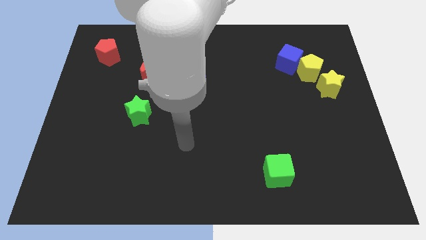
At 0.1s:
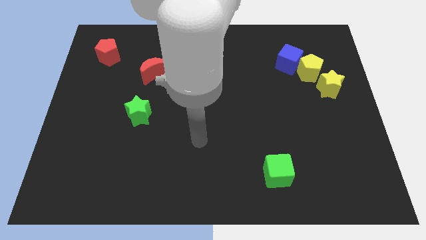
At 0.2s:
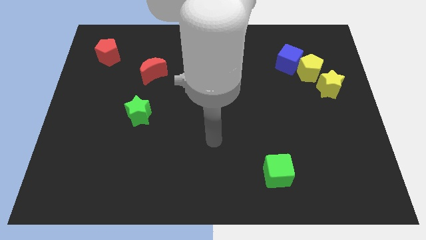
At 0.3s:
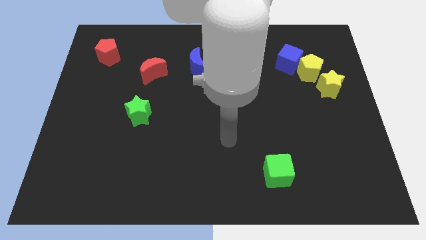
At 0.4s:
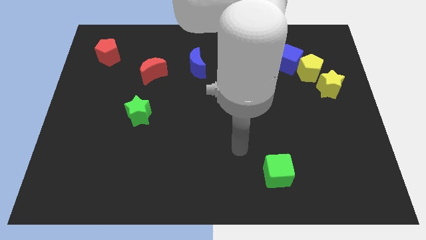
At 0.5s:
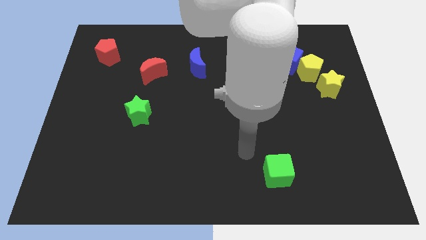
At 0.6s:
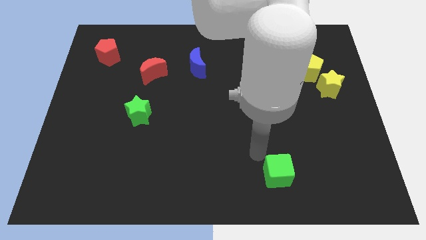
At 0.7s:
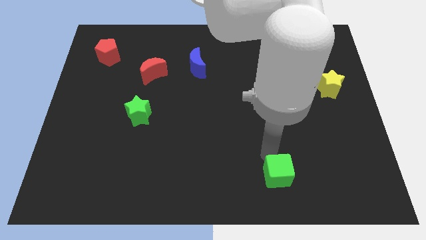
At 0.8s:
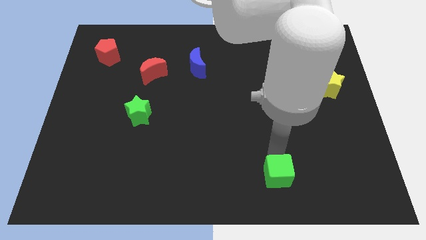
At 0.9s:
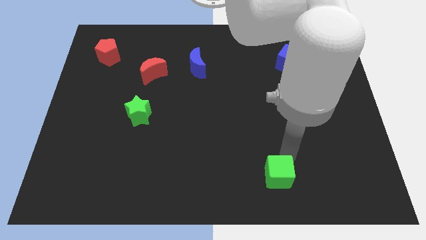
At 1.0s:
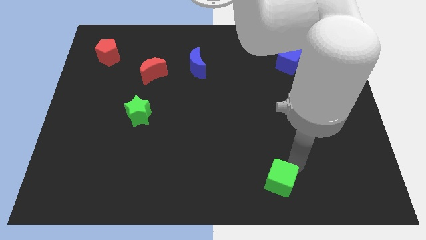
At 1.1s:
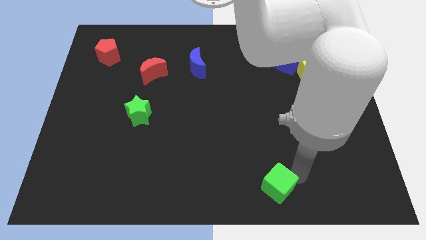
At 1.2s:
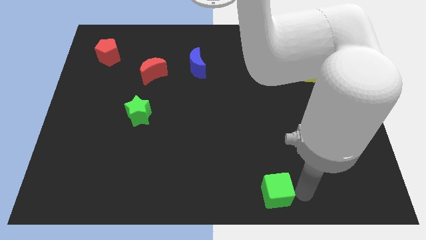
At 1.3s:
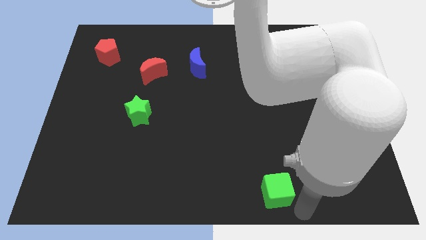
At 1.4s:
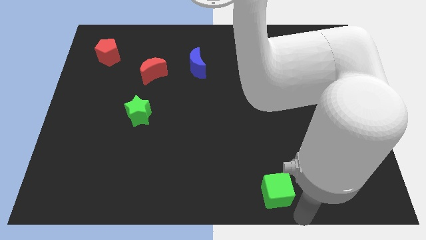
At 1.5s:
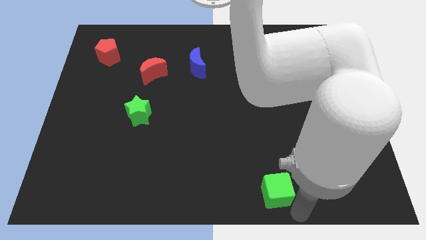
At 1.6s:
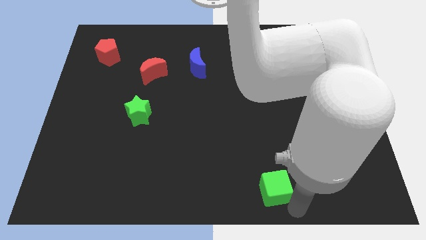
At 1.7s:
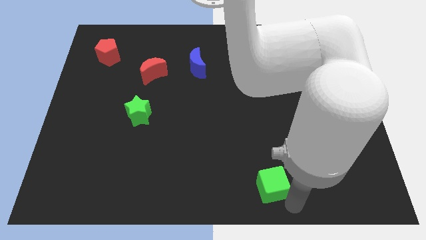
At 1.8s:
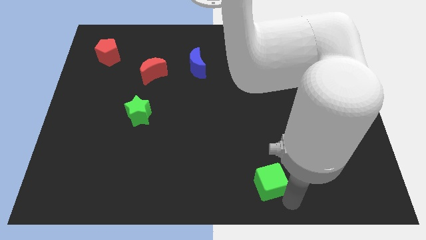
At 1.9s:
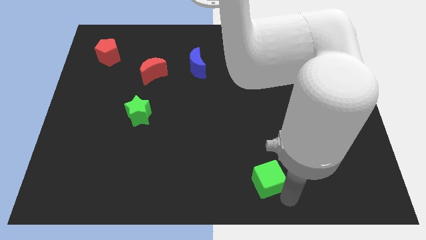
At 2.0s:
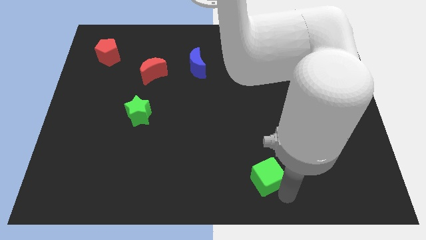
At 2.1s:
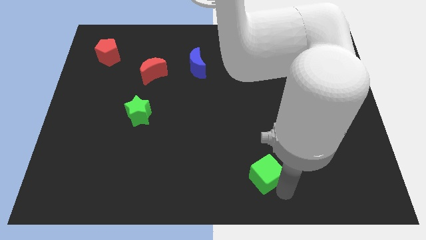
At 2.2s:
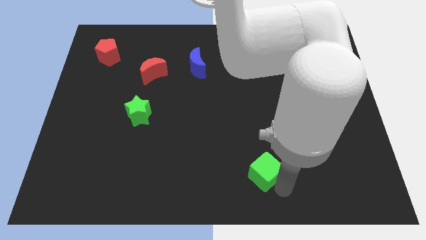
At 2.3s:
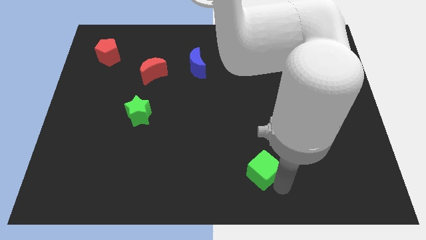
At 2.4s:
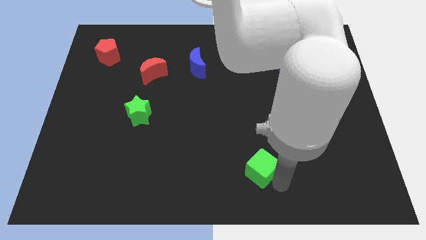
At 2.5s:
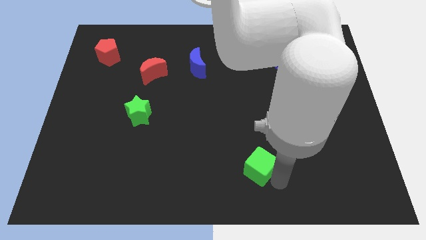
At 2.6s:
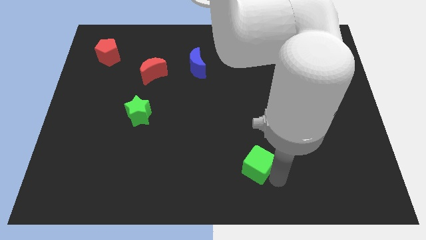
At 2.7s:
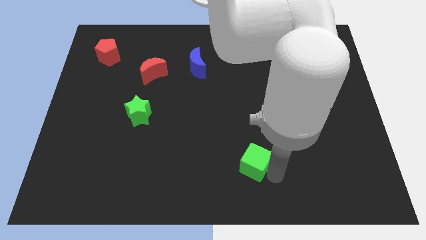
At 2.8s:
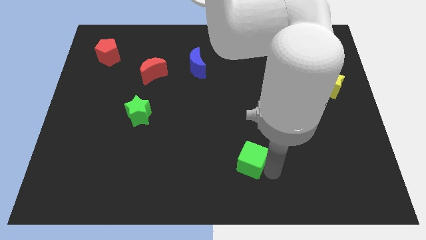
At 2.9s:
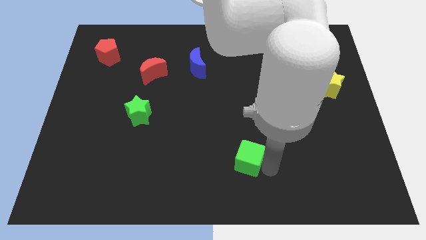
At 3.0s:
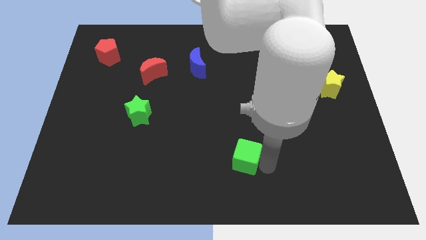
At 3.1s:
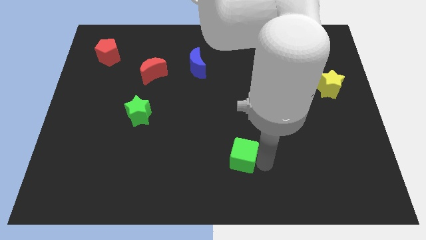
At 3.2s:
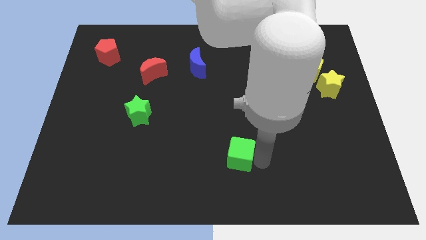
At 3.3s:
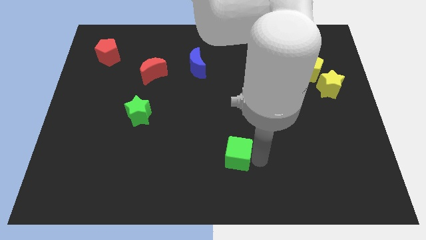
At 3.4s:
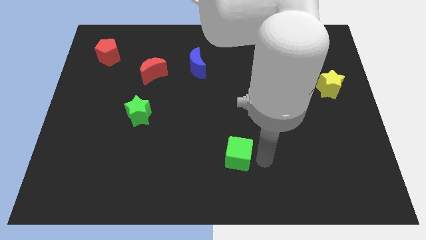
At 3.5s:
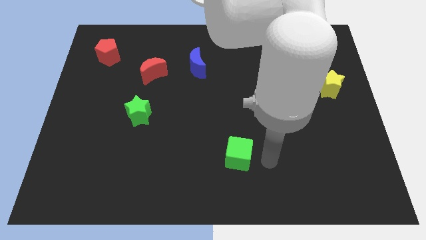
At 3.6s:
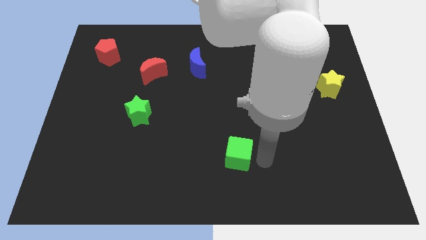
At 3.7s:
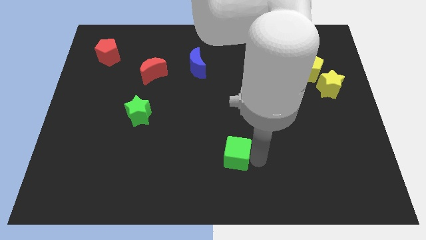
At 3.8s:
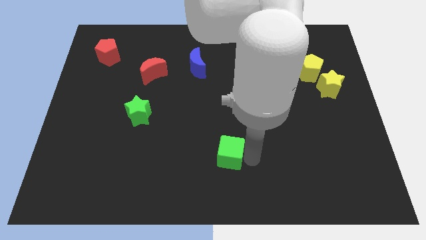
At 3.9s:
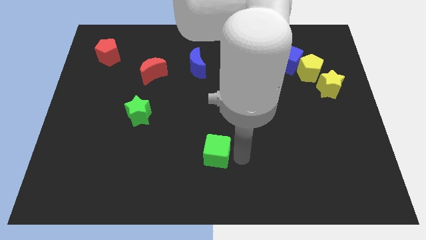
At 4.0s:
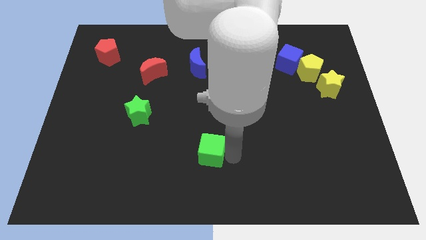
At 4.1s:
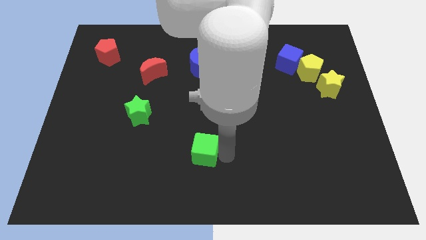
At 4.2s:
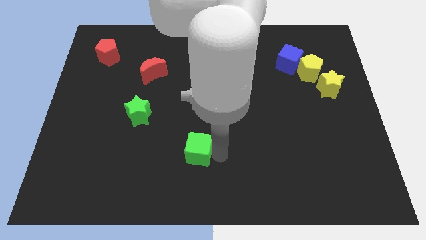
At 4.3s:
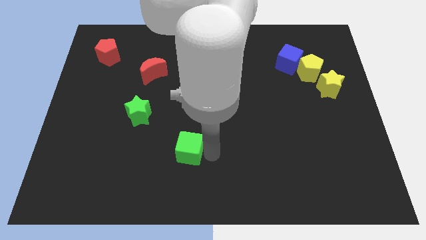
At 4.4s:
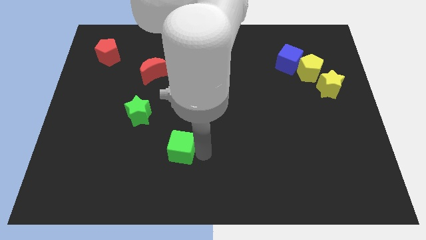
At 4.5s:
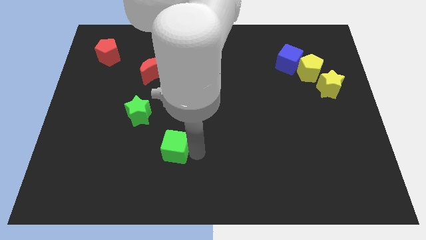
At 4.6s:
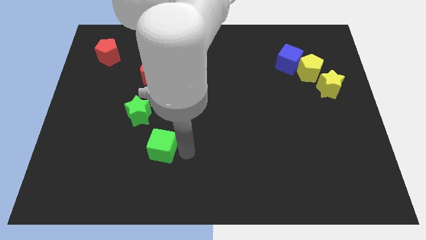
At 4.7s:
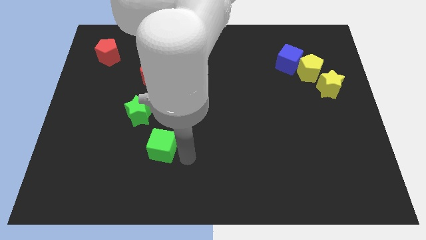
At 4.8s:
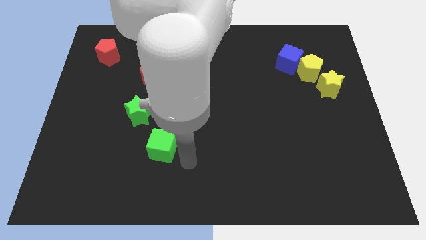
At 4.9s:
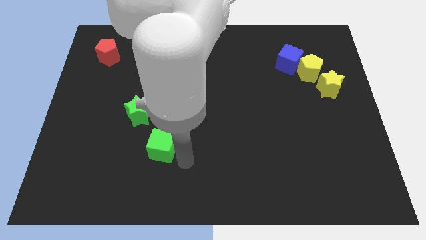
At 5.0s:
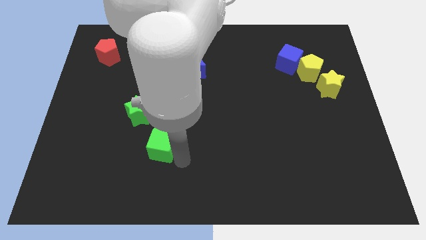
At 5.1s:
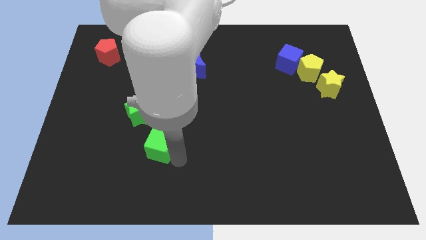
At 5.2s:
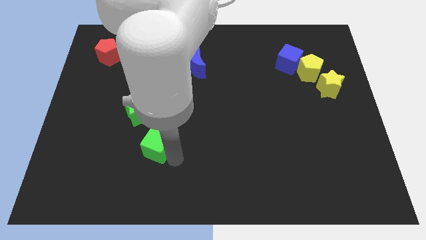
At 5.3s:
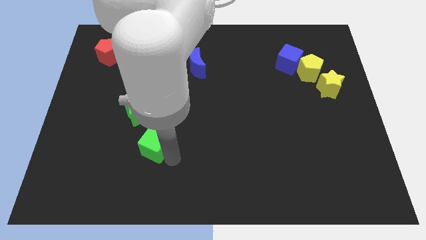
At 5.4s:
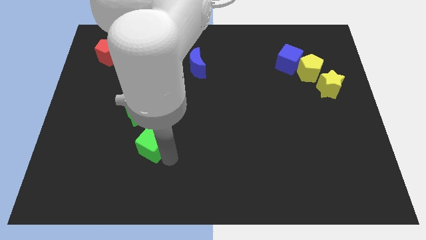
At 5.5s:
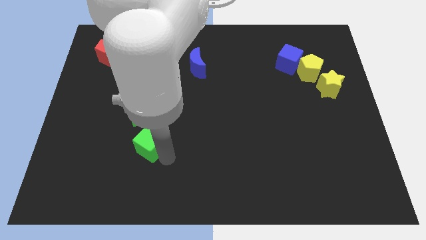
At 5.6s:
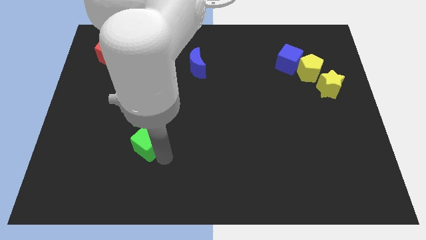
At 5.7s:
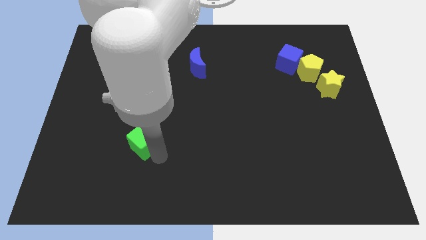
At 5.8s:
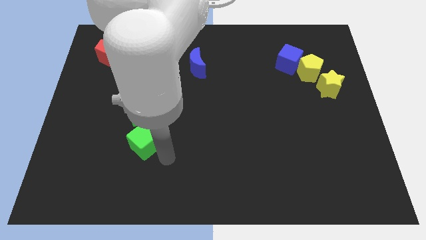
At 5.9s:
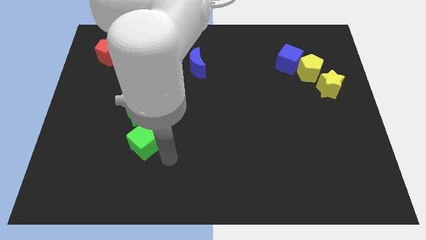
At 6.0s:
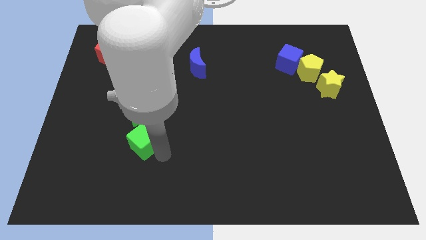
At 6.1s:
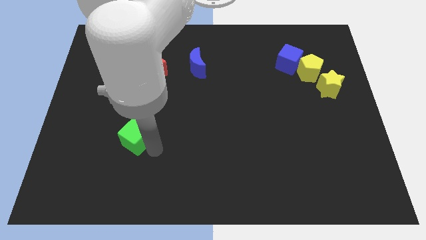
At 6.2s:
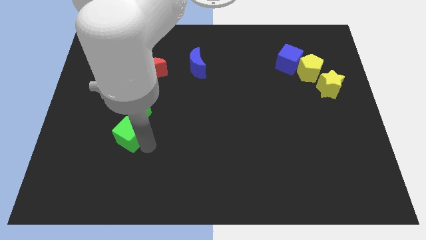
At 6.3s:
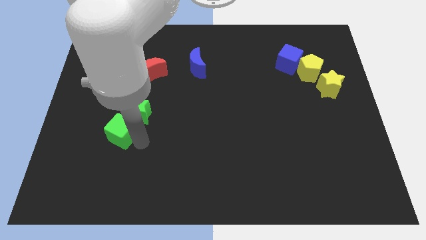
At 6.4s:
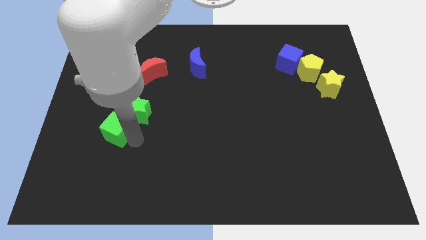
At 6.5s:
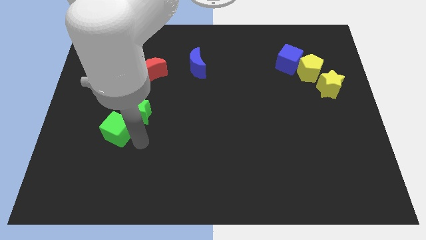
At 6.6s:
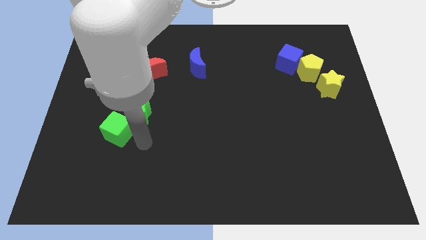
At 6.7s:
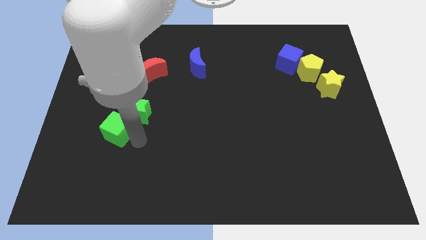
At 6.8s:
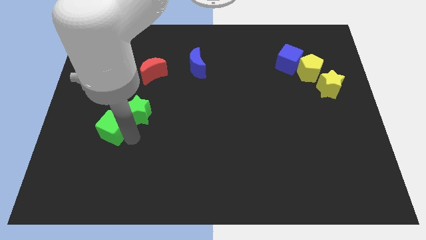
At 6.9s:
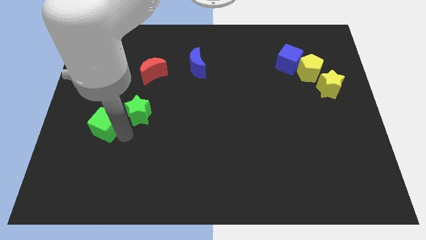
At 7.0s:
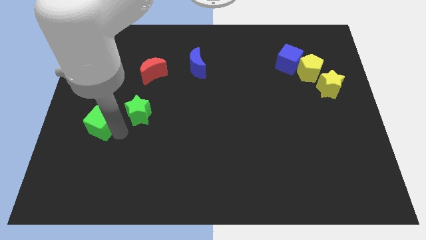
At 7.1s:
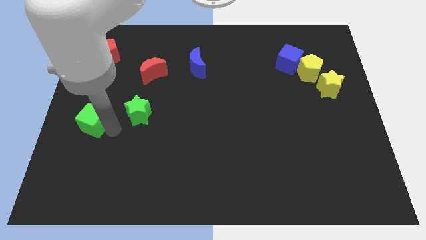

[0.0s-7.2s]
put the green cube to the center left
